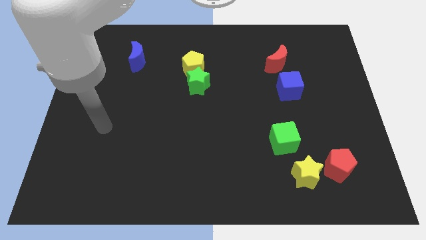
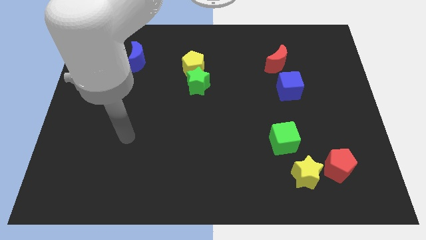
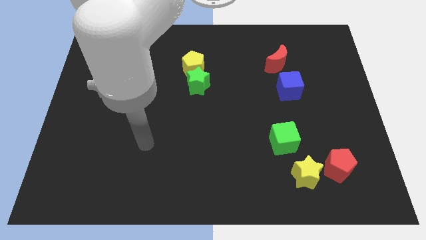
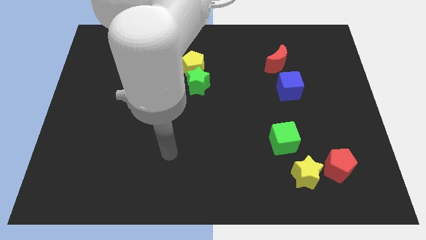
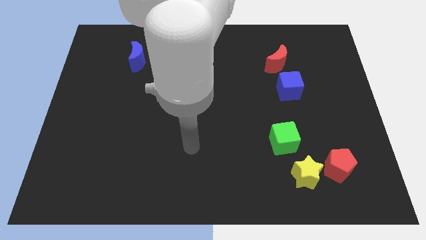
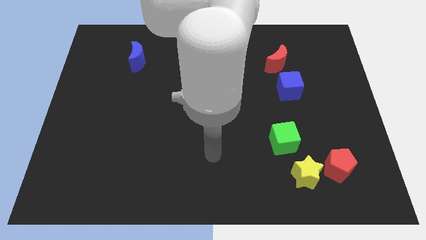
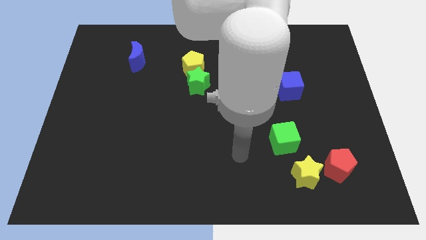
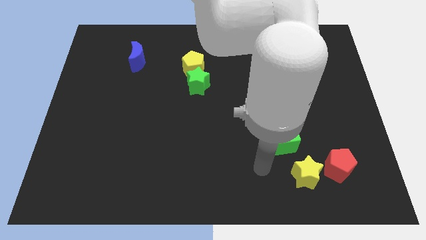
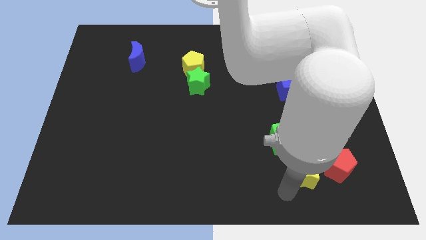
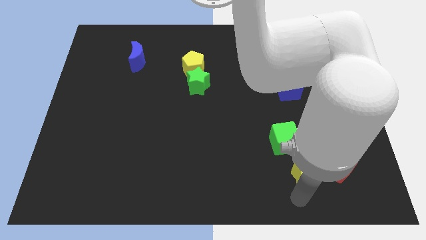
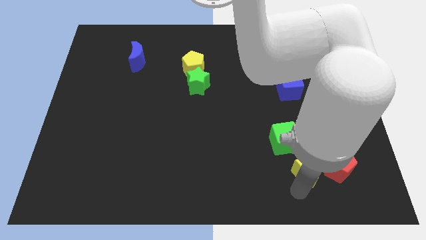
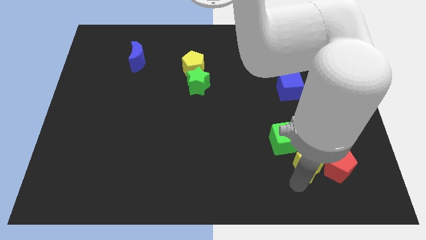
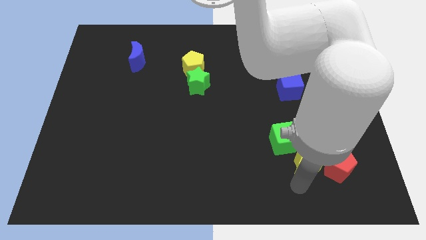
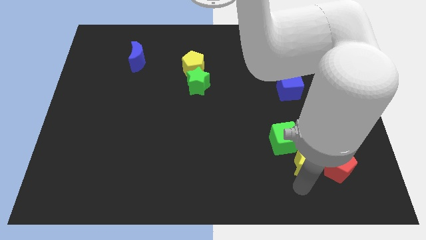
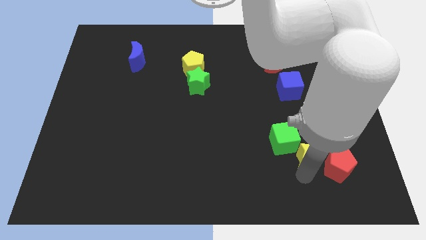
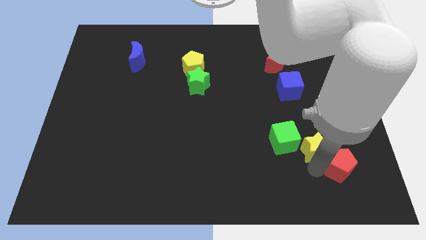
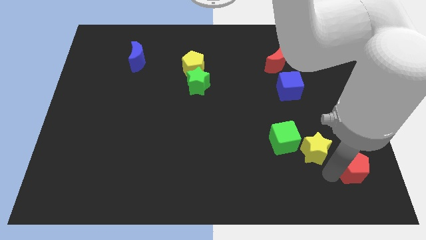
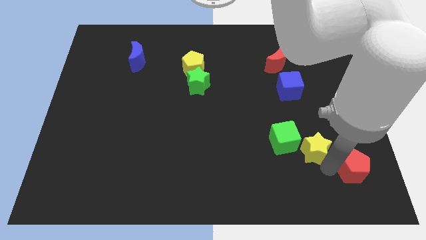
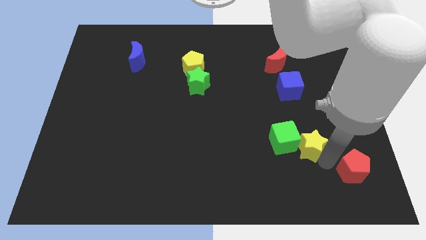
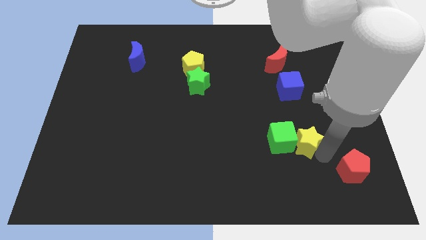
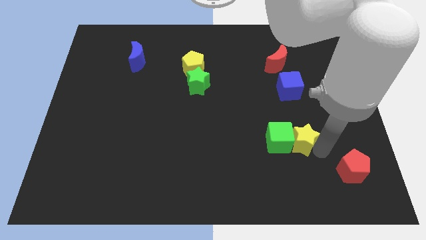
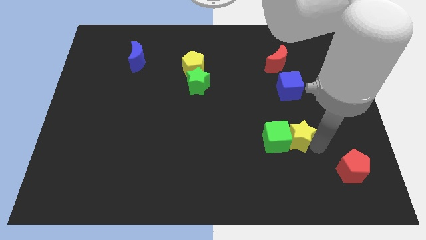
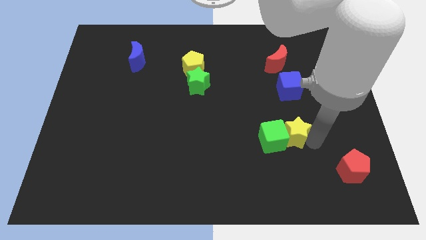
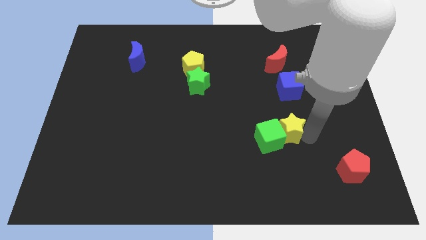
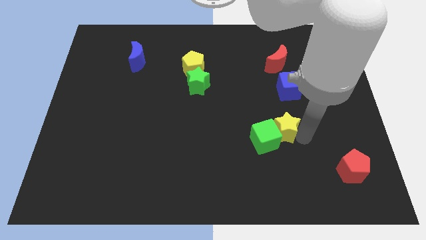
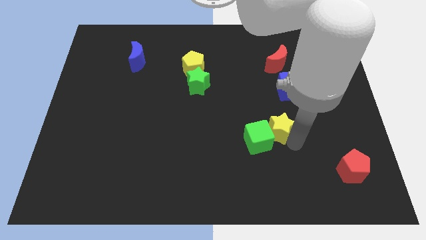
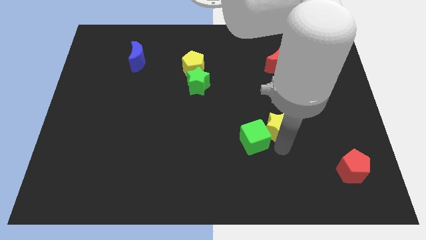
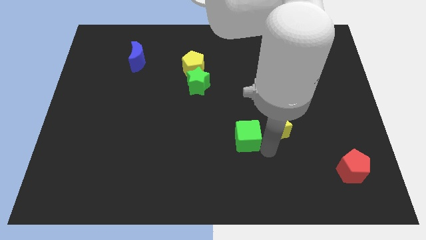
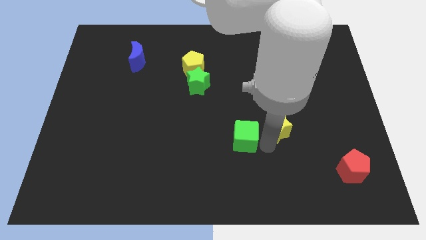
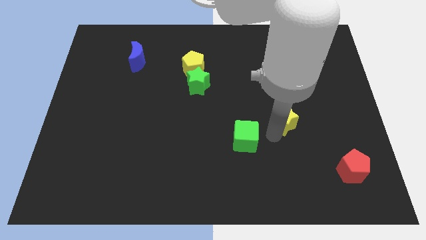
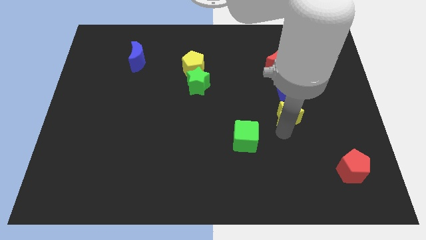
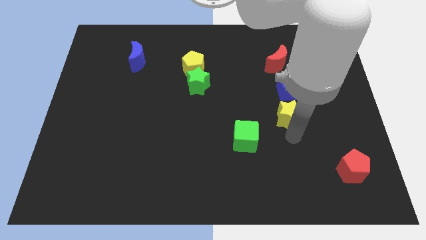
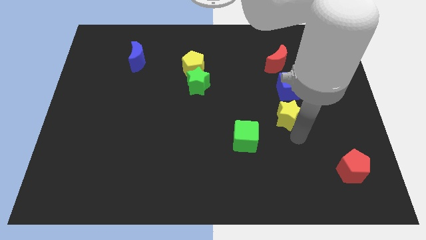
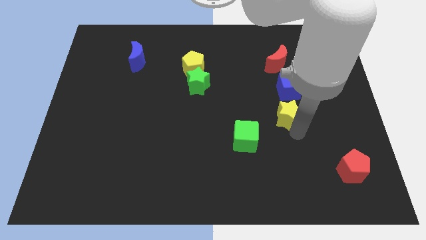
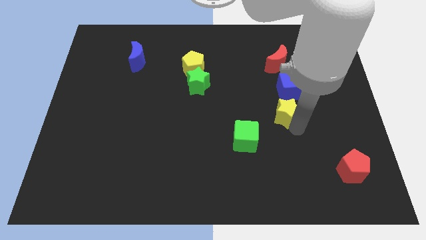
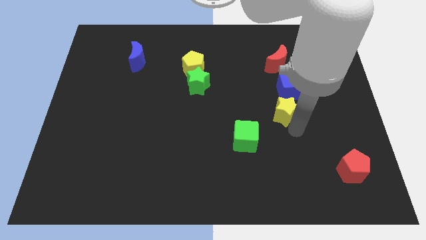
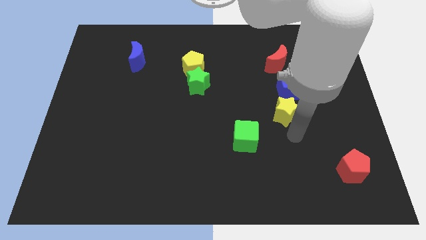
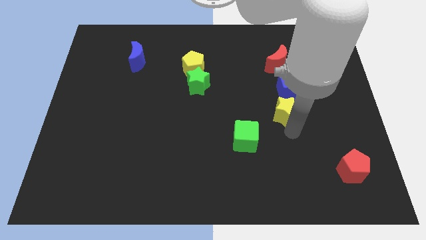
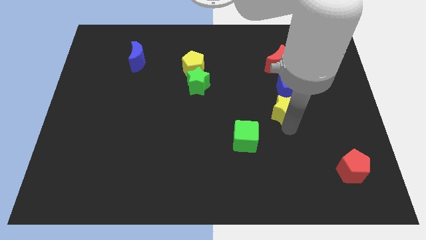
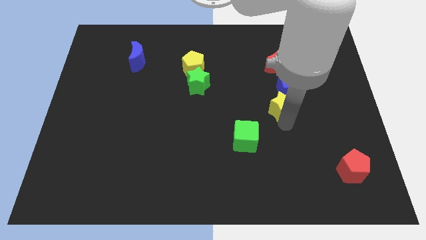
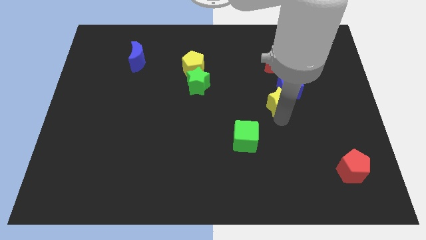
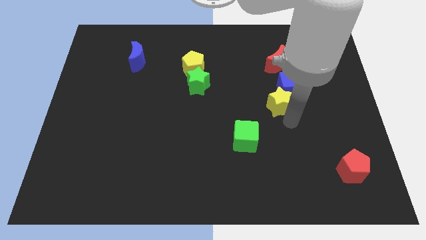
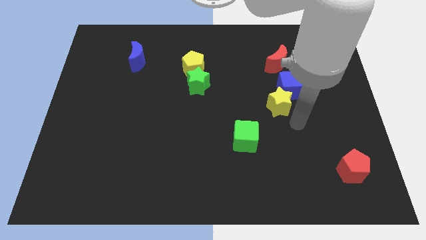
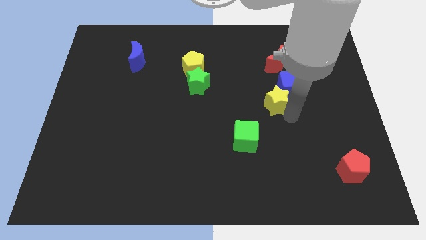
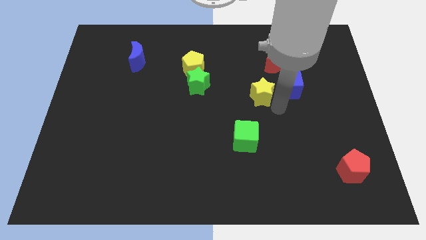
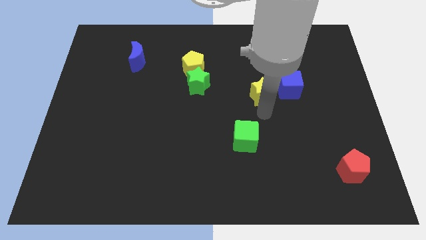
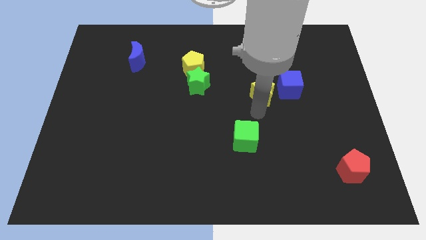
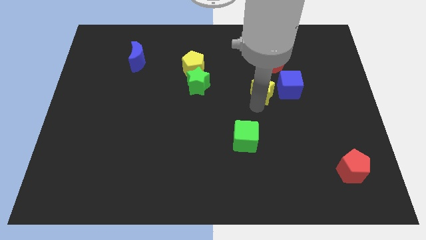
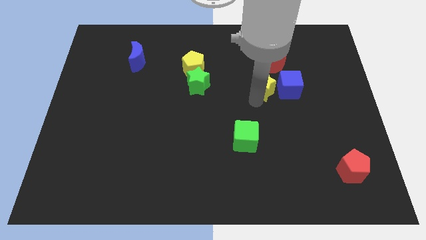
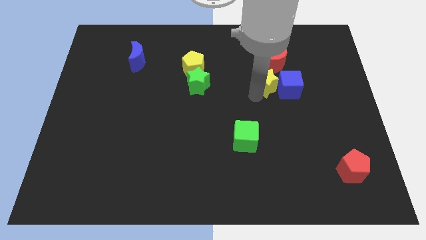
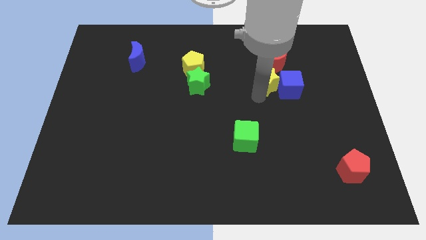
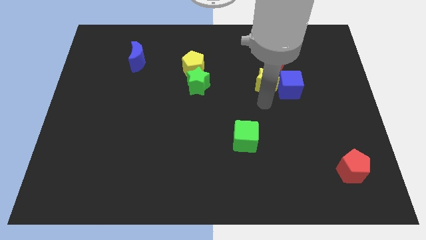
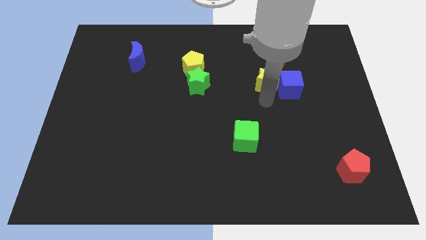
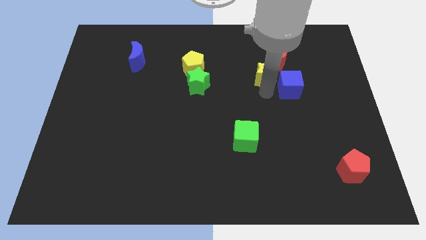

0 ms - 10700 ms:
put the yellow star to the red moon

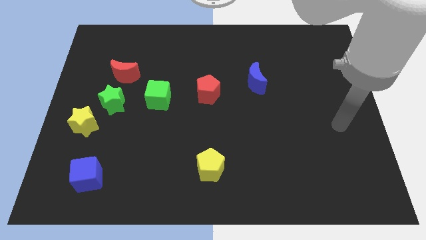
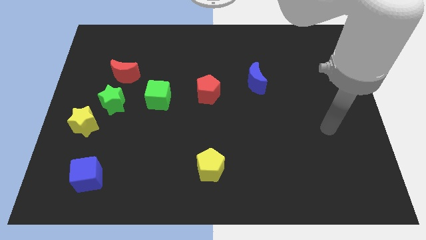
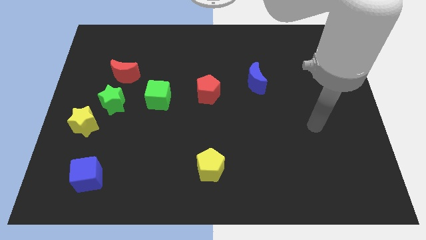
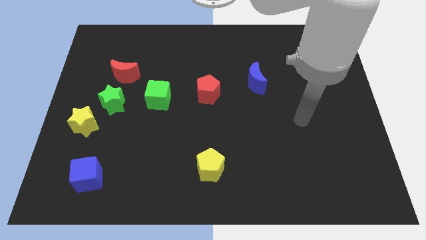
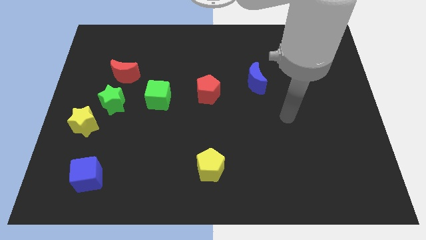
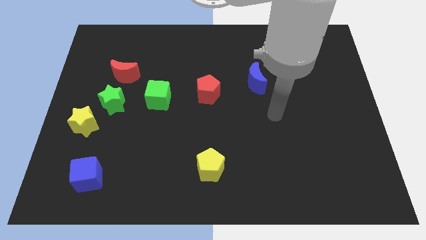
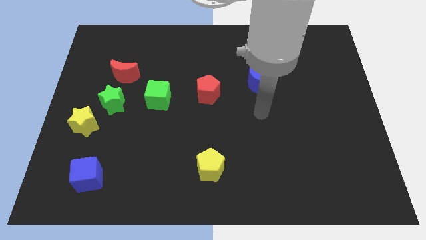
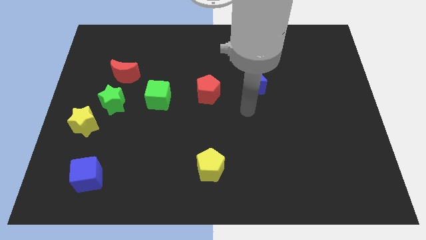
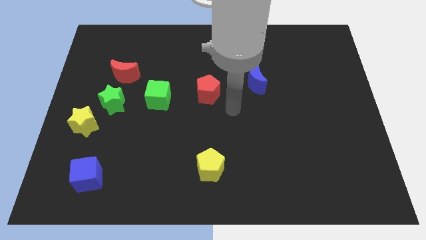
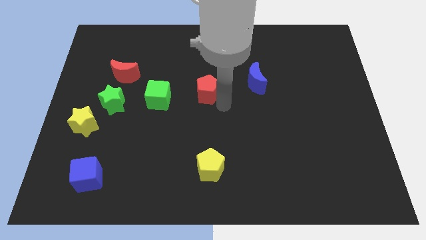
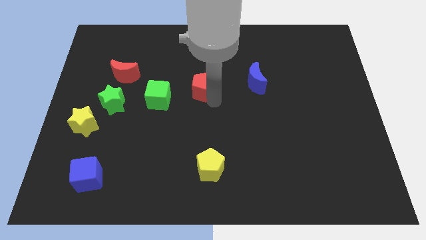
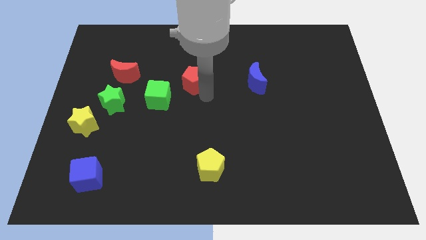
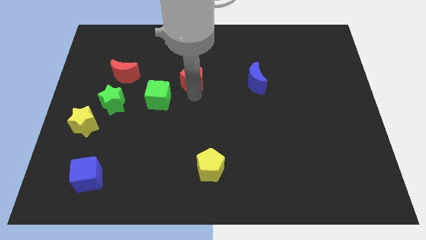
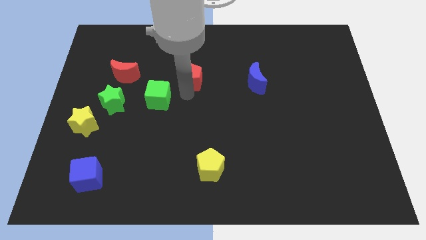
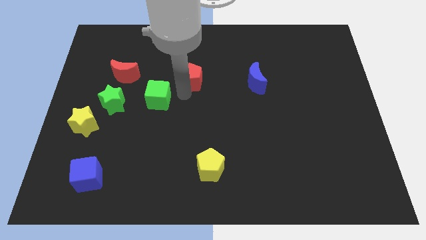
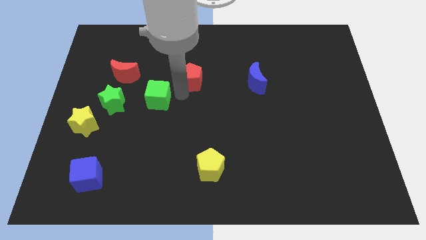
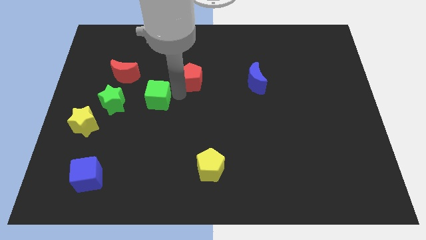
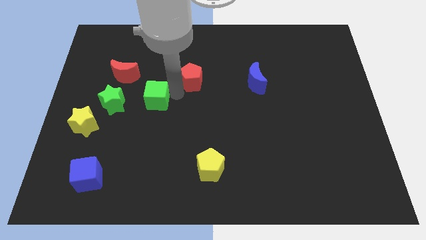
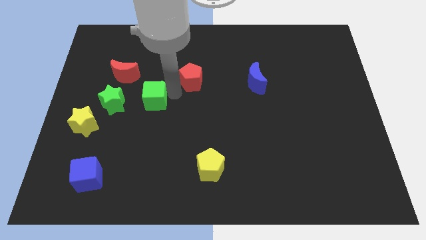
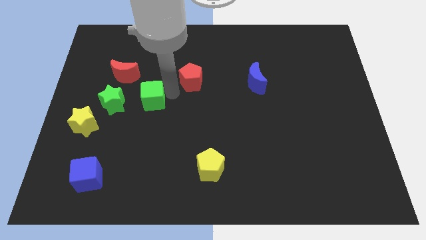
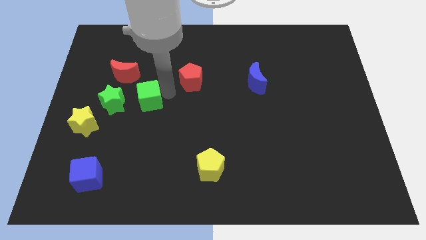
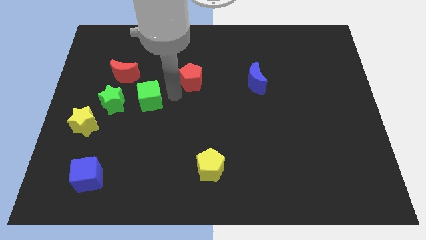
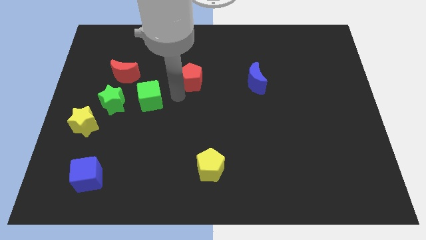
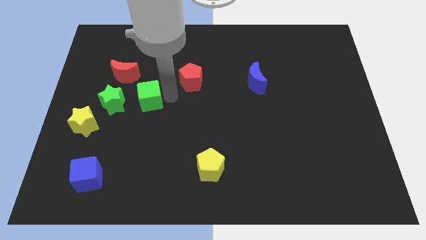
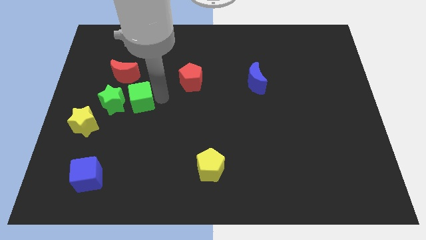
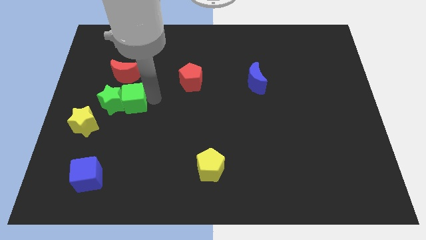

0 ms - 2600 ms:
push the green cube towards the green star
